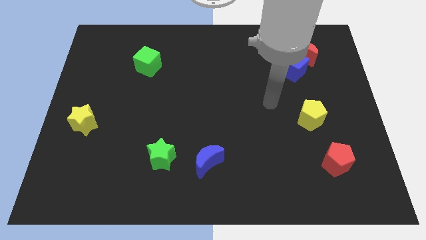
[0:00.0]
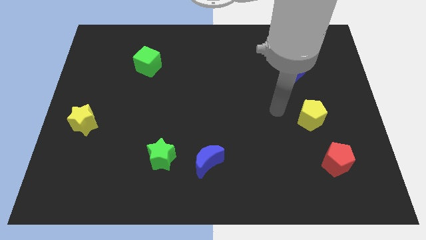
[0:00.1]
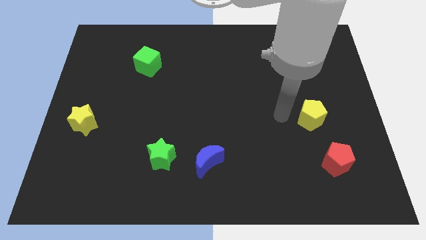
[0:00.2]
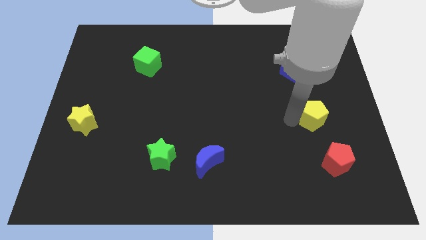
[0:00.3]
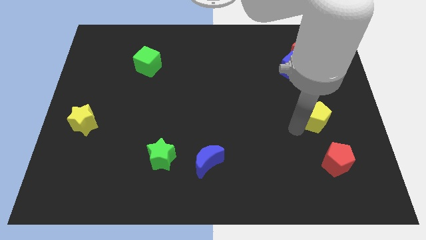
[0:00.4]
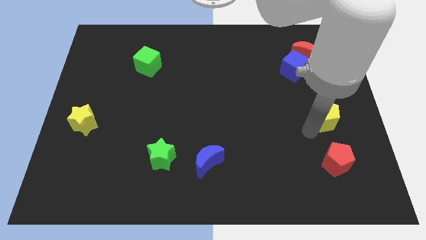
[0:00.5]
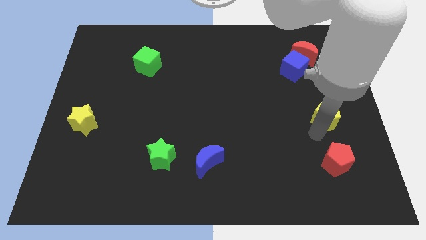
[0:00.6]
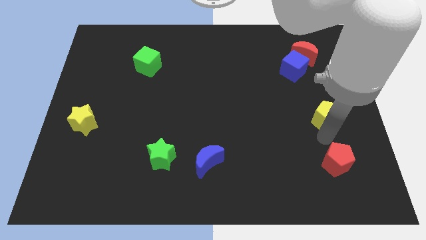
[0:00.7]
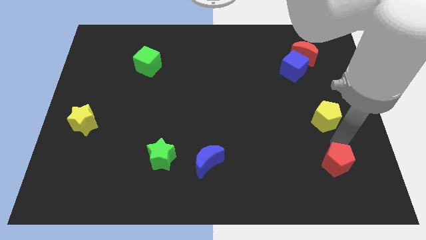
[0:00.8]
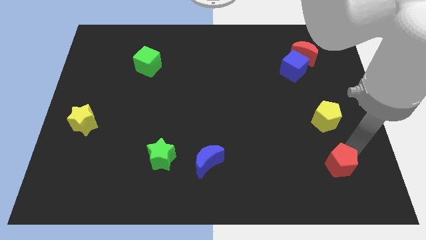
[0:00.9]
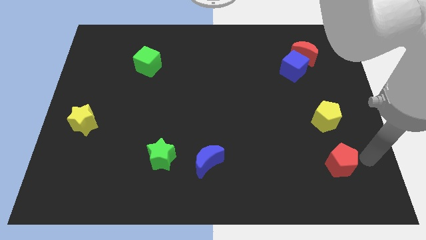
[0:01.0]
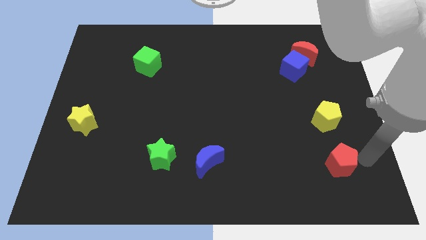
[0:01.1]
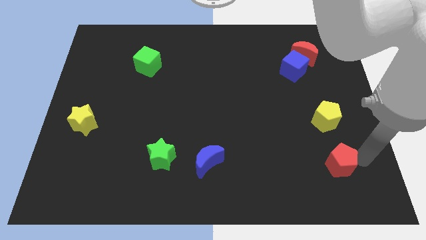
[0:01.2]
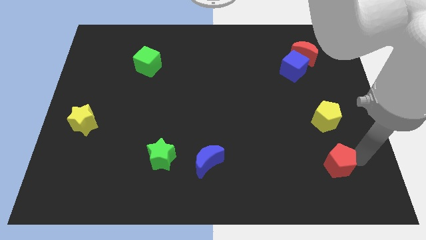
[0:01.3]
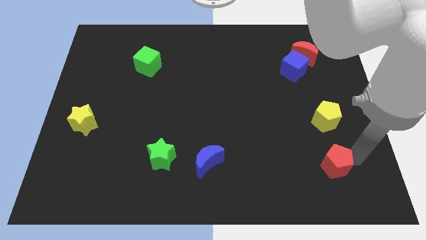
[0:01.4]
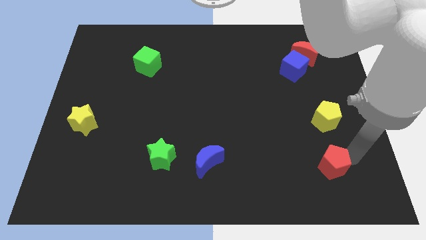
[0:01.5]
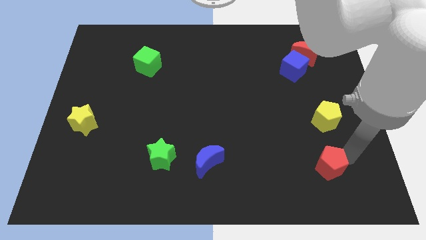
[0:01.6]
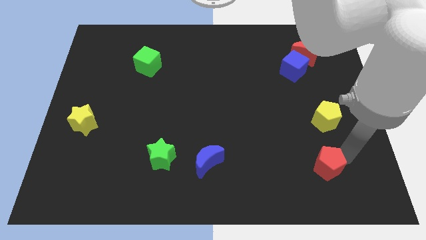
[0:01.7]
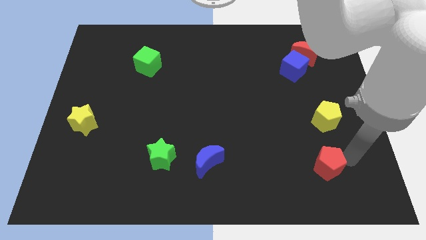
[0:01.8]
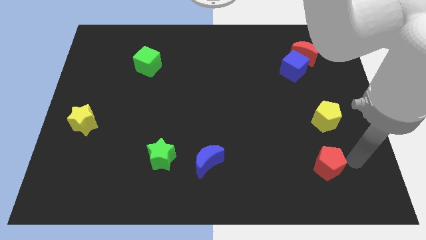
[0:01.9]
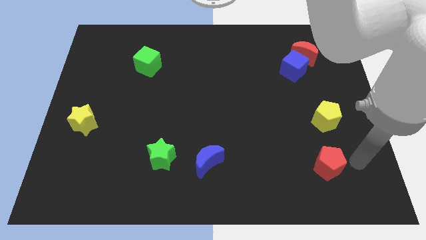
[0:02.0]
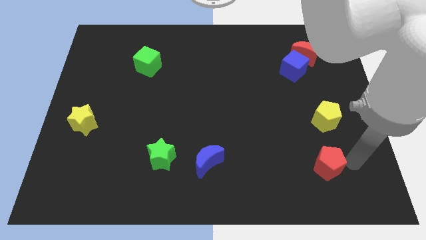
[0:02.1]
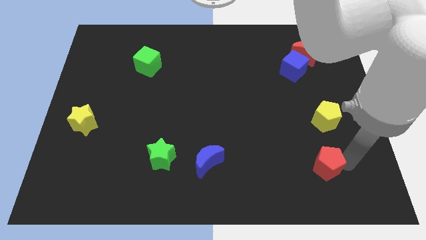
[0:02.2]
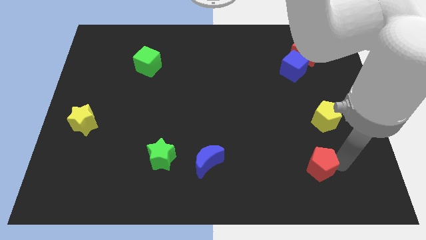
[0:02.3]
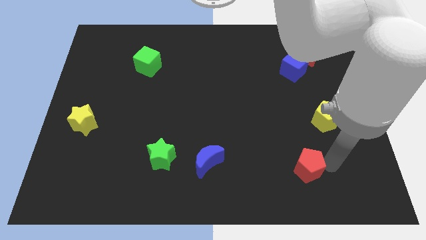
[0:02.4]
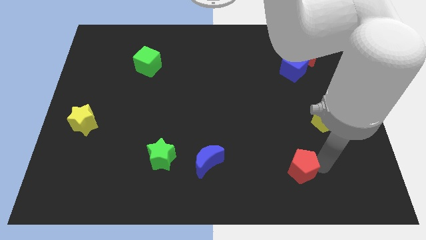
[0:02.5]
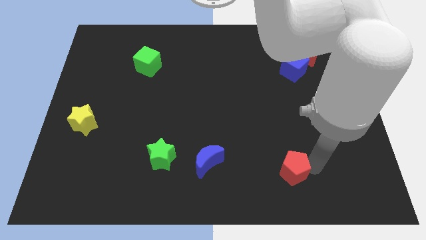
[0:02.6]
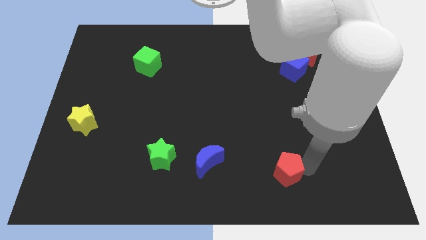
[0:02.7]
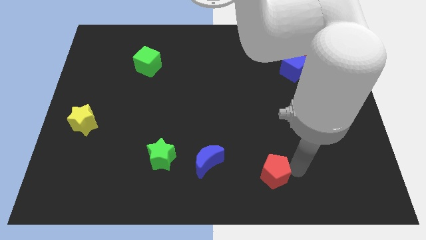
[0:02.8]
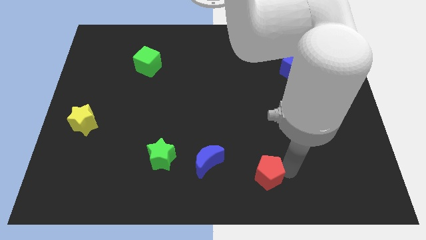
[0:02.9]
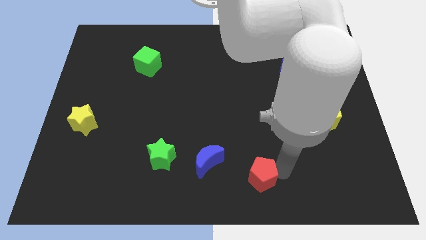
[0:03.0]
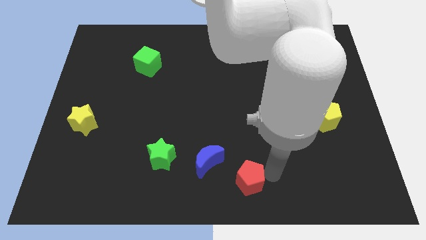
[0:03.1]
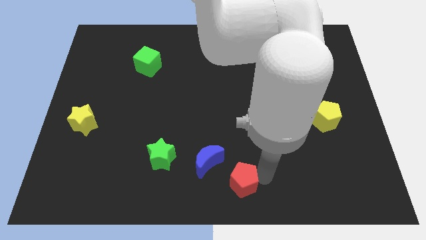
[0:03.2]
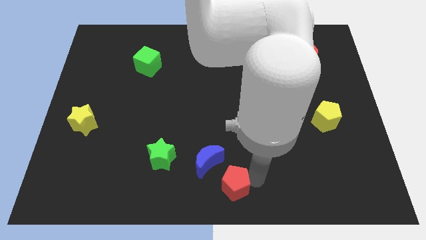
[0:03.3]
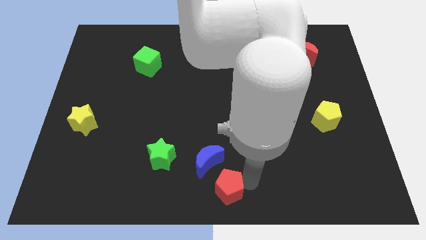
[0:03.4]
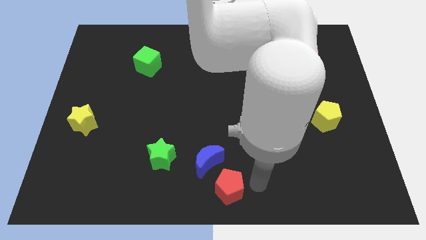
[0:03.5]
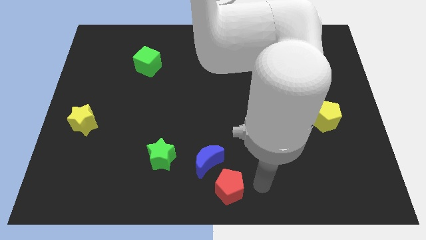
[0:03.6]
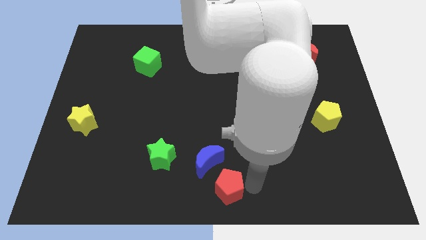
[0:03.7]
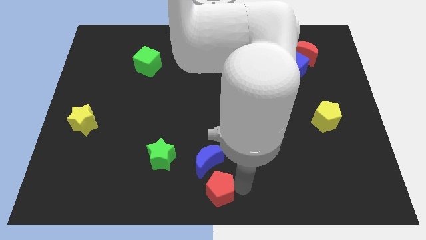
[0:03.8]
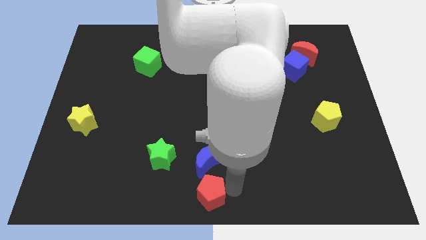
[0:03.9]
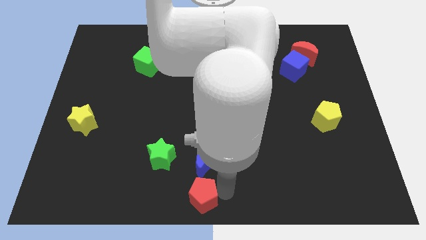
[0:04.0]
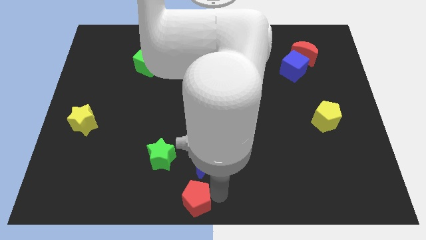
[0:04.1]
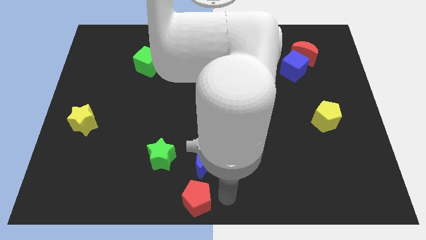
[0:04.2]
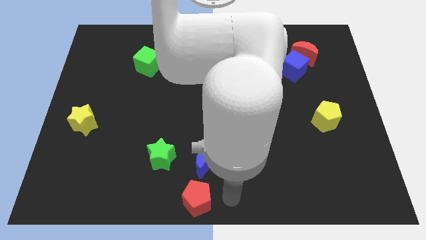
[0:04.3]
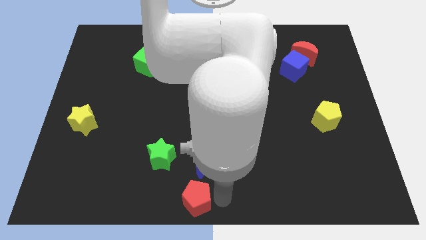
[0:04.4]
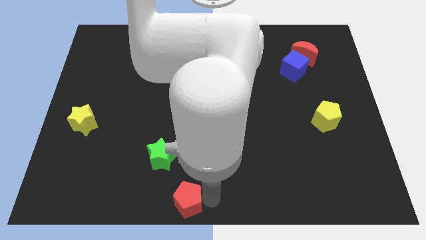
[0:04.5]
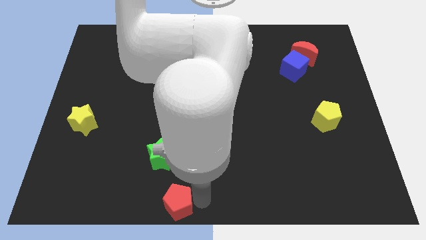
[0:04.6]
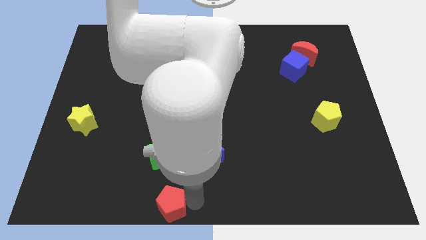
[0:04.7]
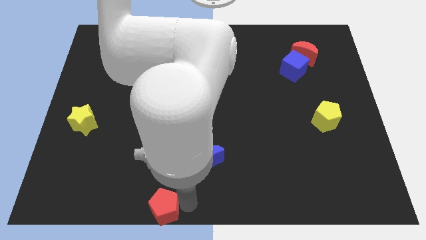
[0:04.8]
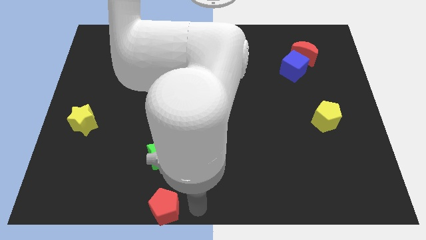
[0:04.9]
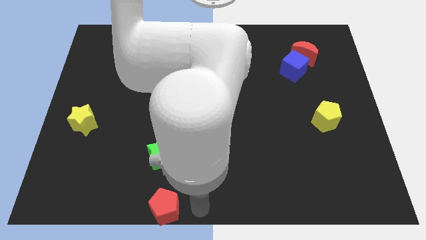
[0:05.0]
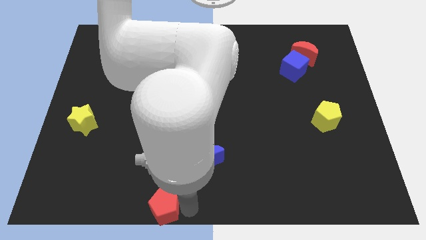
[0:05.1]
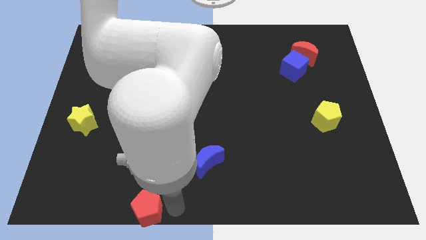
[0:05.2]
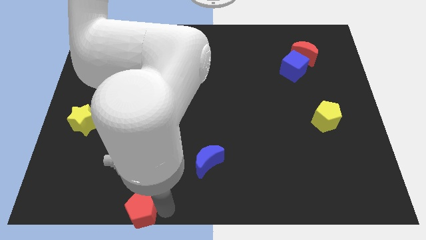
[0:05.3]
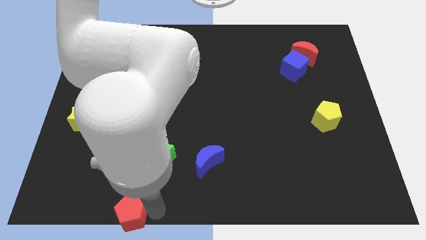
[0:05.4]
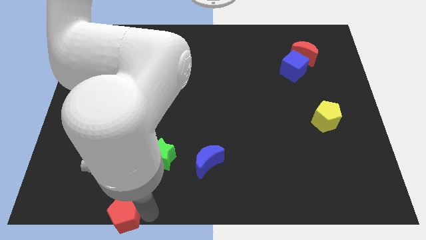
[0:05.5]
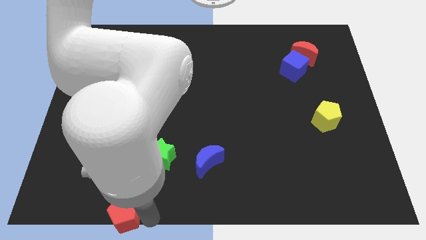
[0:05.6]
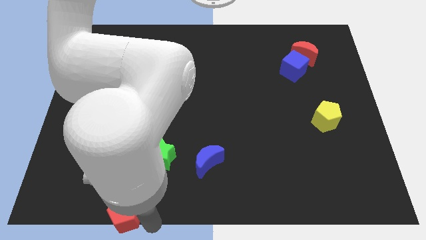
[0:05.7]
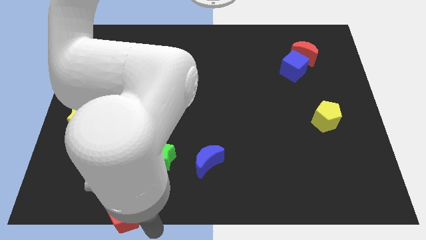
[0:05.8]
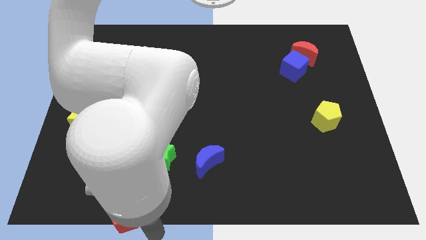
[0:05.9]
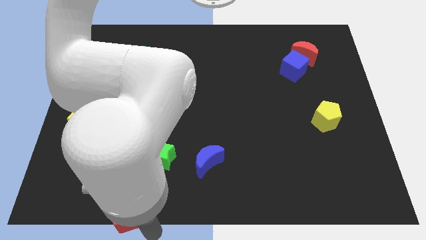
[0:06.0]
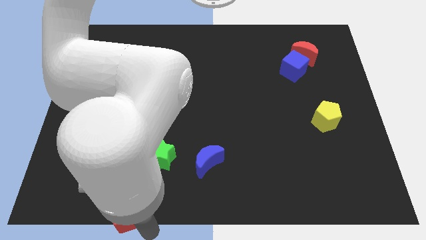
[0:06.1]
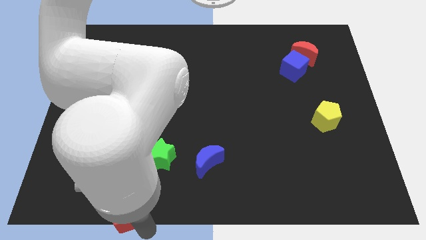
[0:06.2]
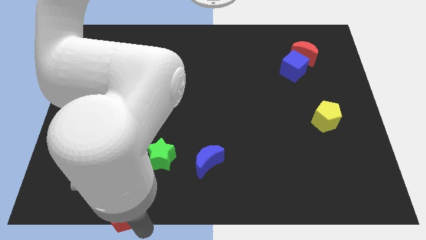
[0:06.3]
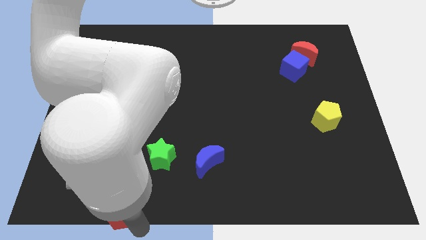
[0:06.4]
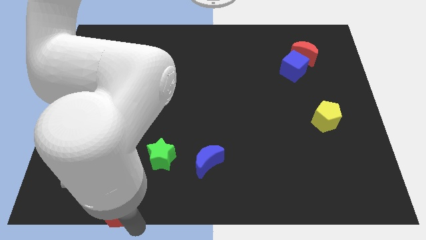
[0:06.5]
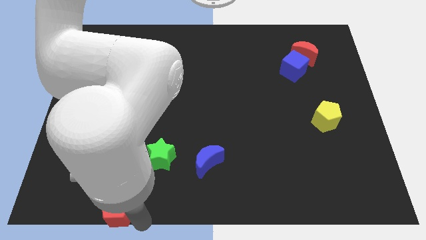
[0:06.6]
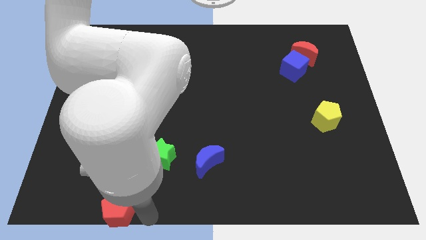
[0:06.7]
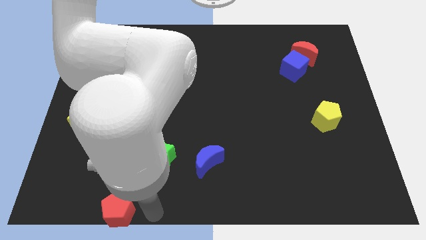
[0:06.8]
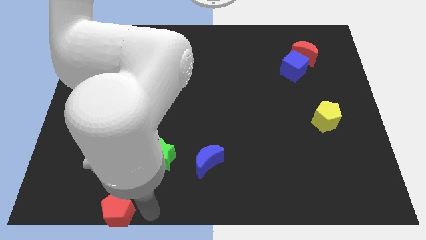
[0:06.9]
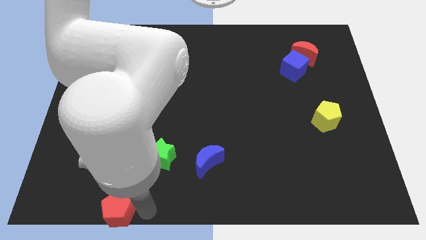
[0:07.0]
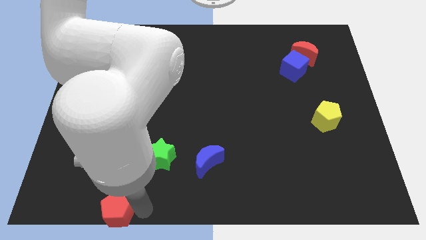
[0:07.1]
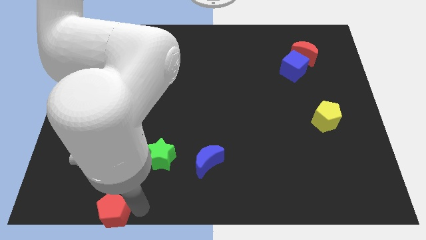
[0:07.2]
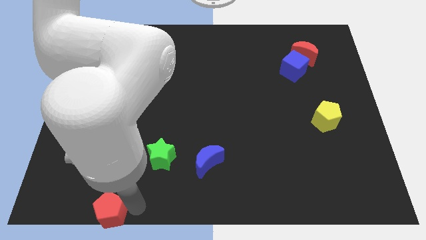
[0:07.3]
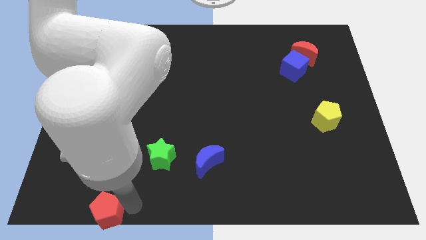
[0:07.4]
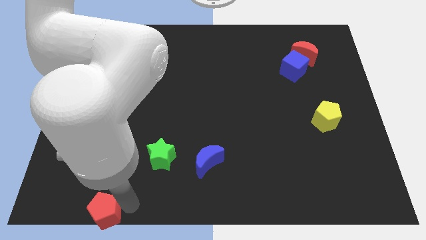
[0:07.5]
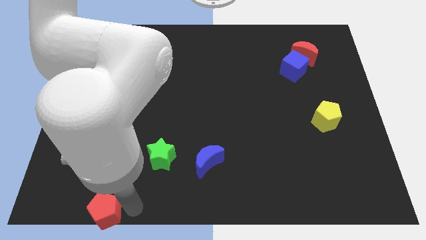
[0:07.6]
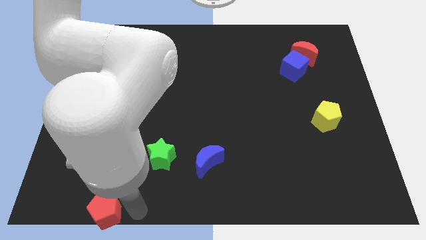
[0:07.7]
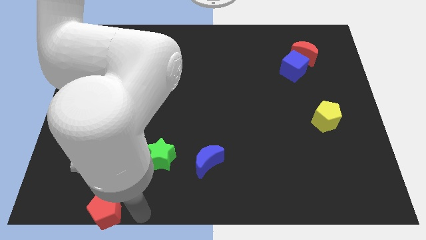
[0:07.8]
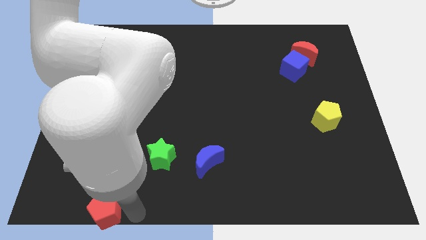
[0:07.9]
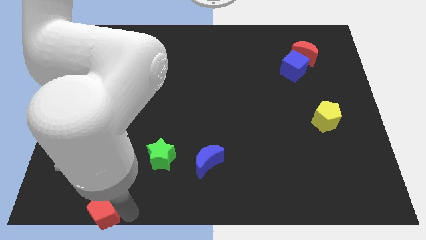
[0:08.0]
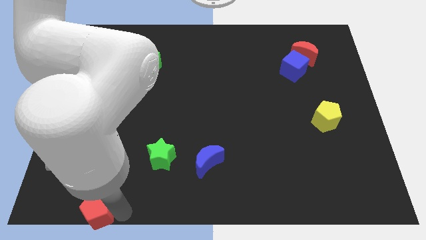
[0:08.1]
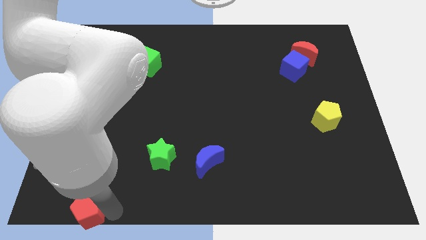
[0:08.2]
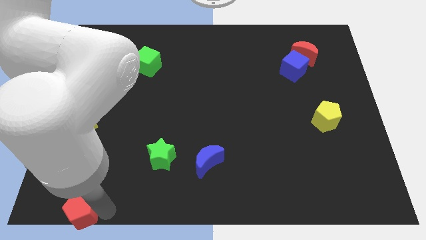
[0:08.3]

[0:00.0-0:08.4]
slide the red pentagon to the bottom left of the board
